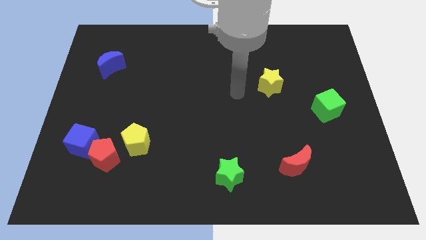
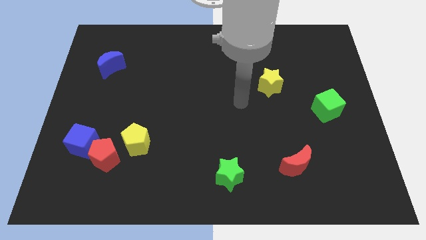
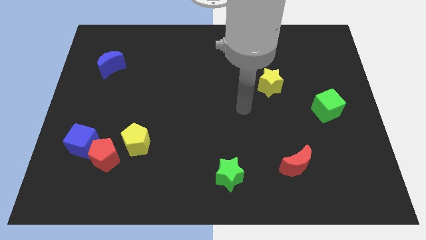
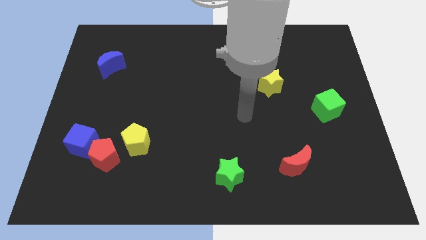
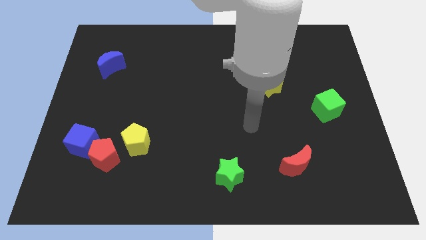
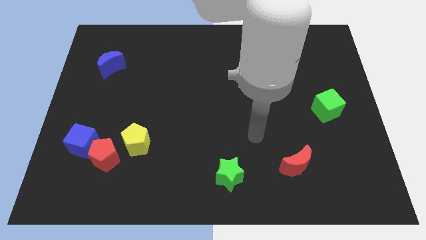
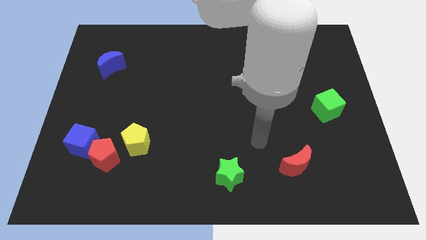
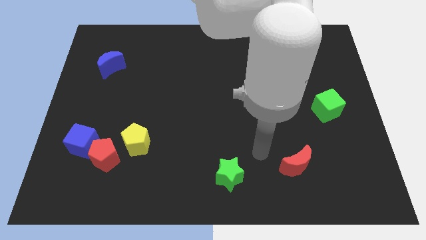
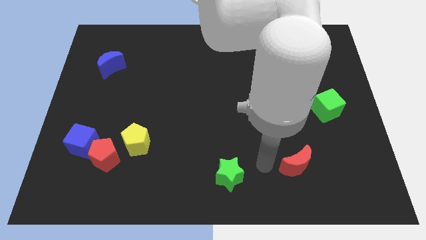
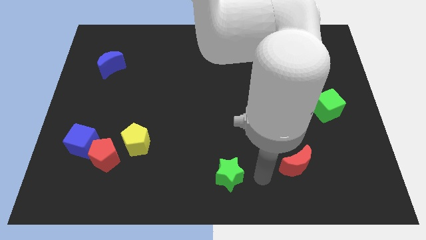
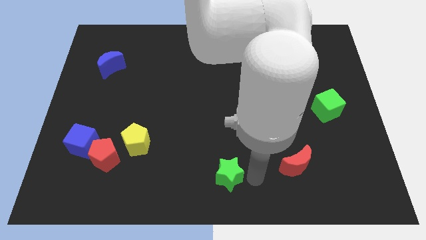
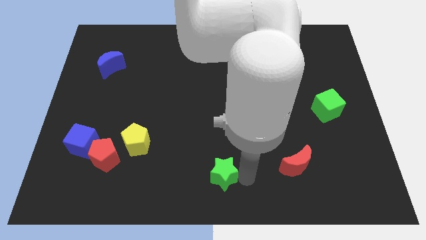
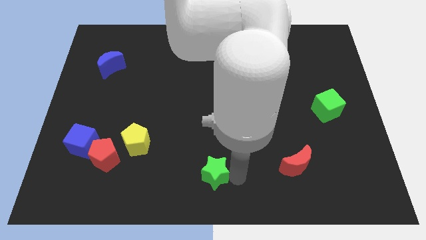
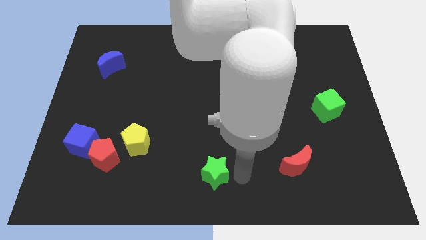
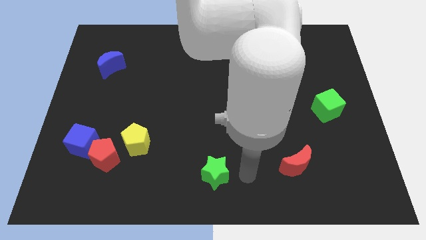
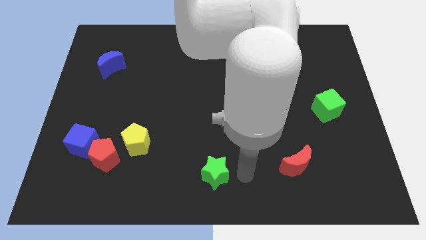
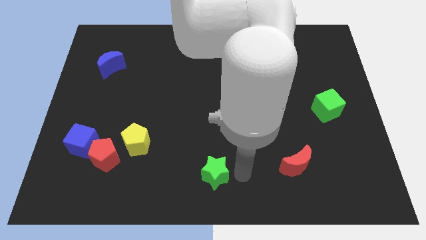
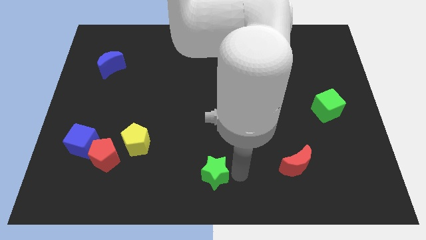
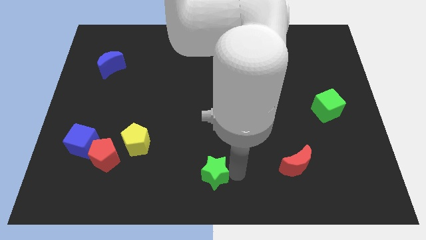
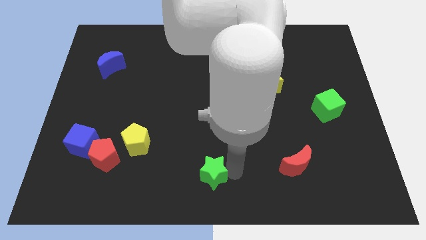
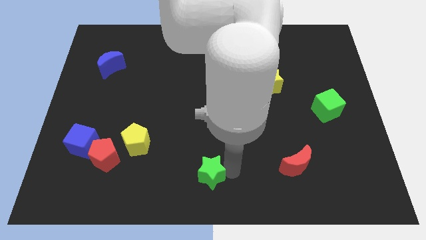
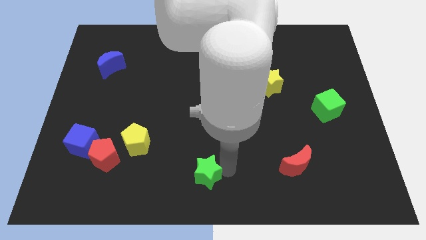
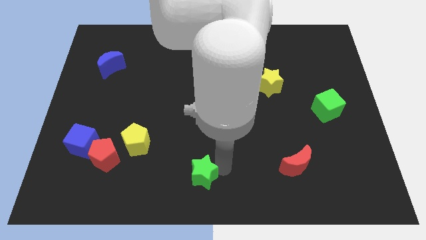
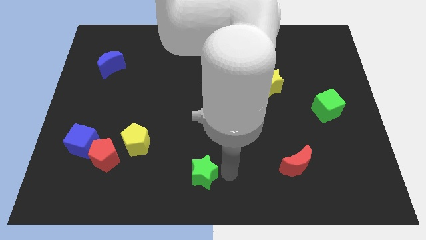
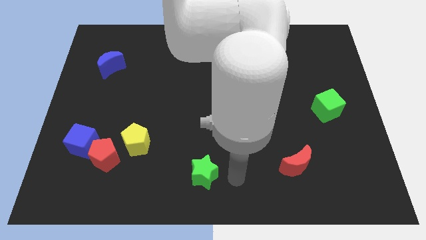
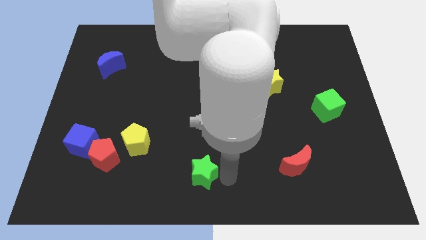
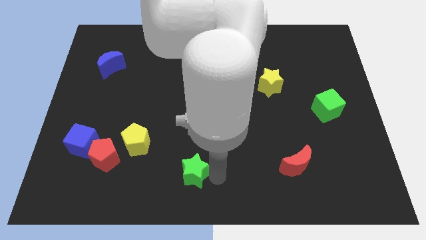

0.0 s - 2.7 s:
slightly slide the green star left

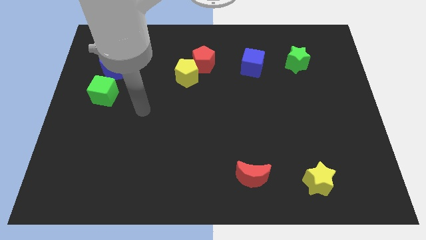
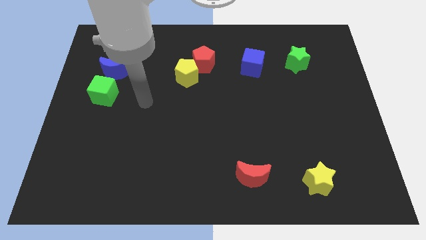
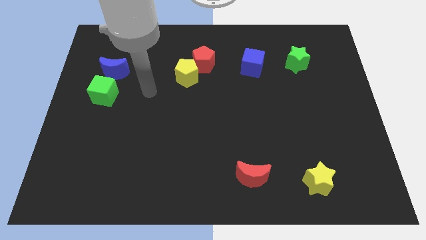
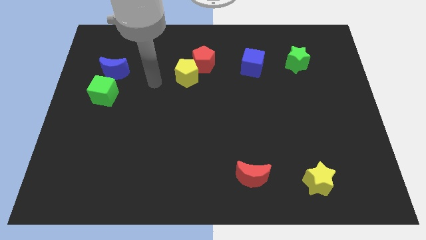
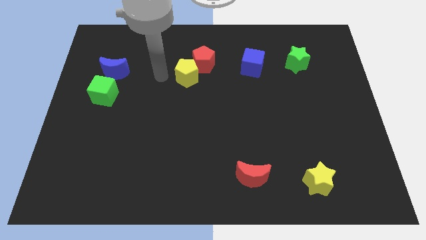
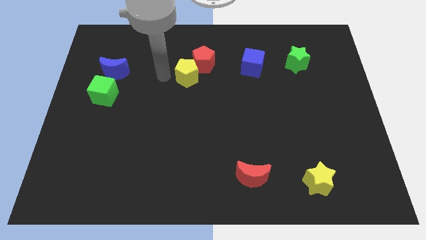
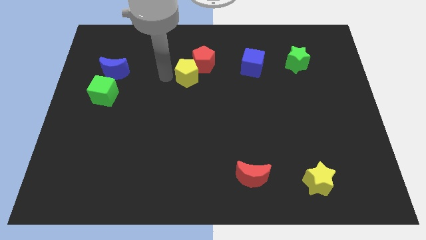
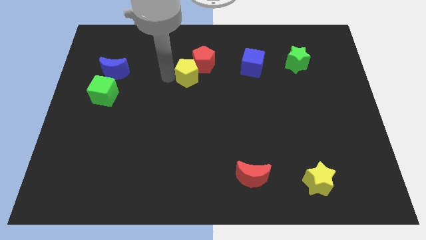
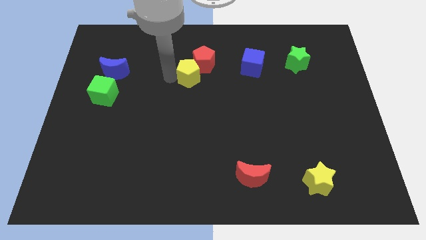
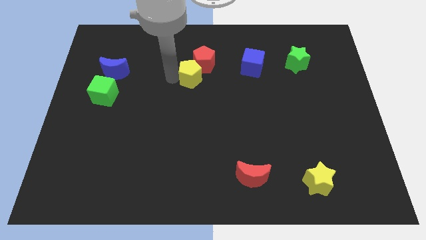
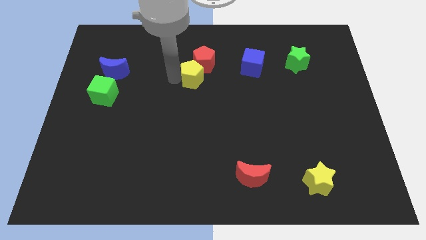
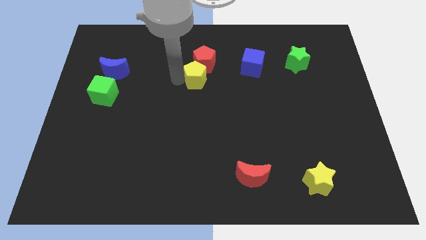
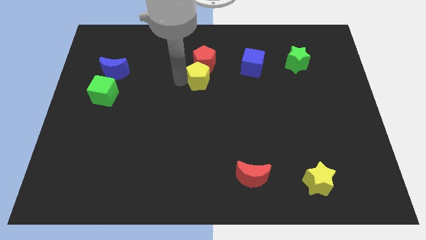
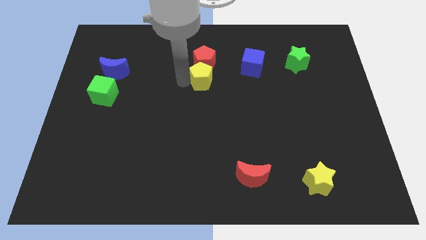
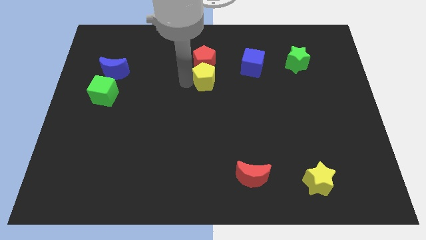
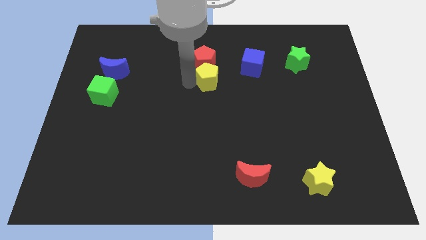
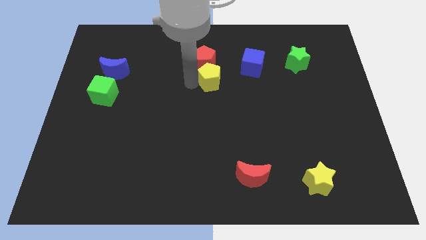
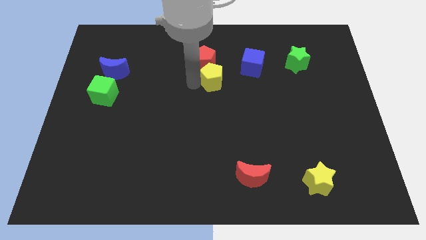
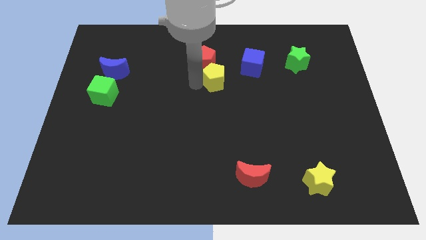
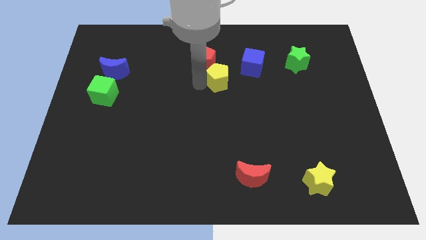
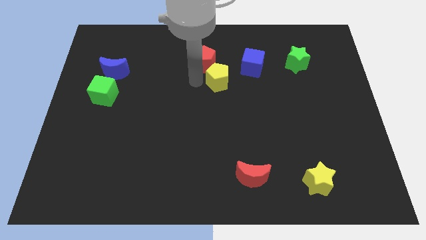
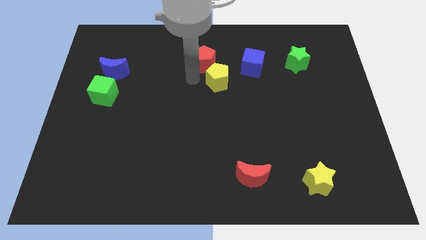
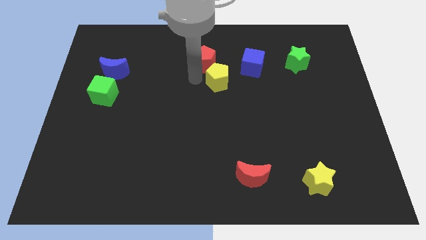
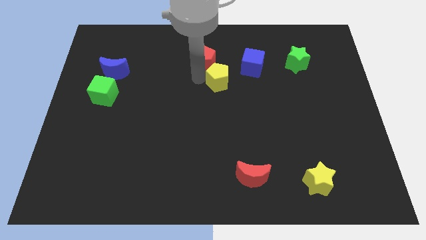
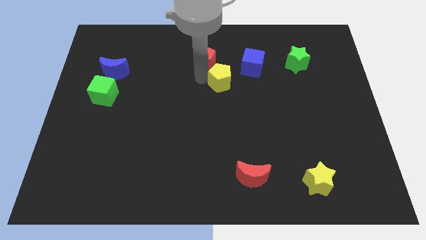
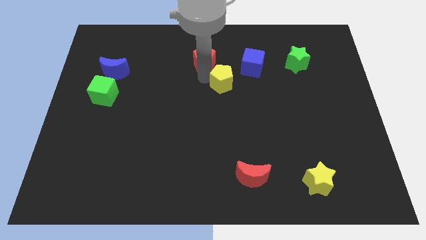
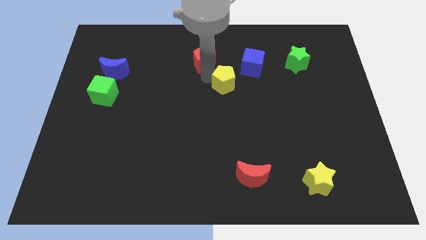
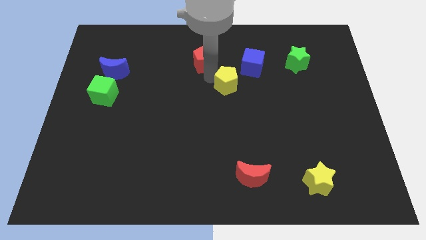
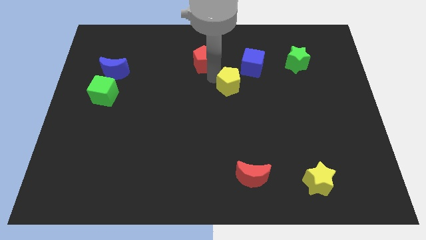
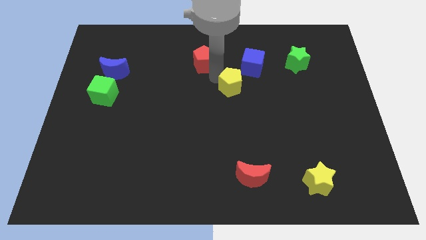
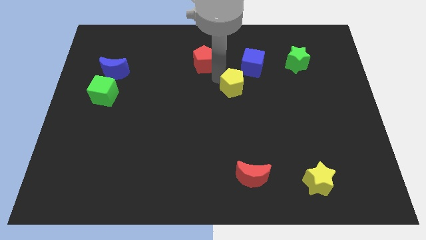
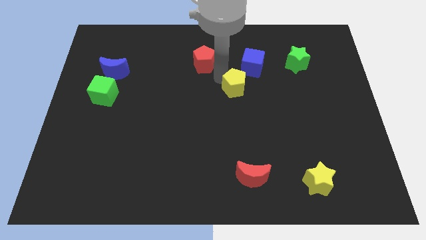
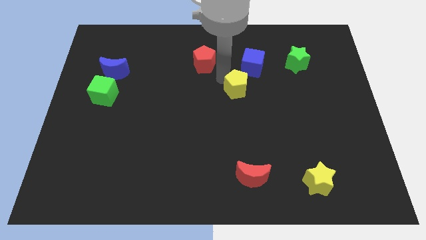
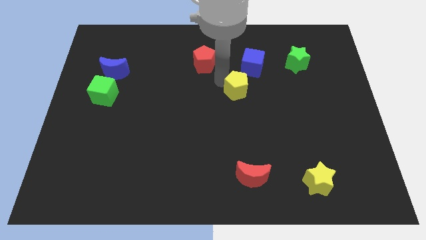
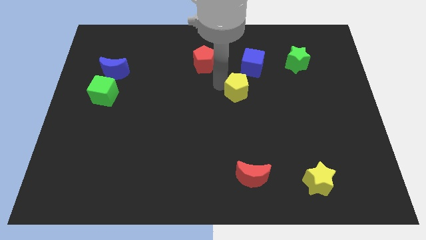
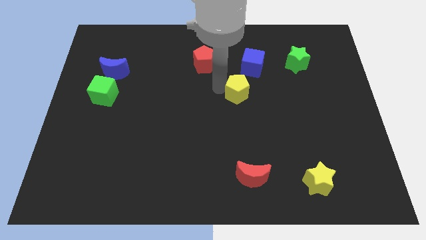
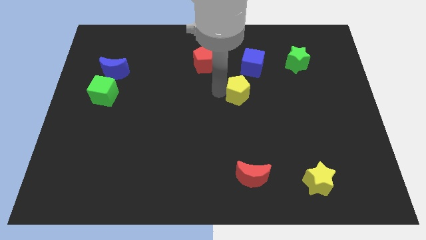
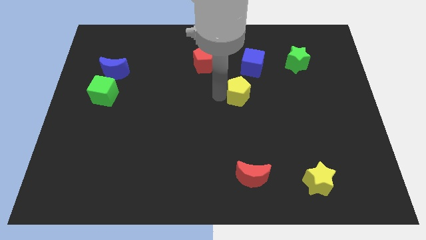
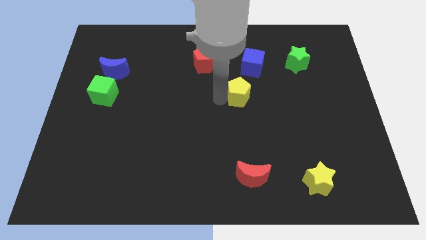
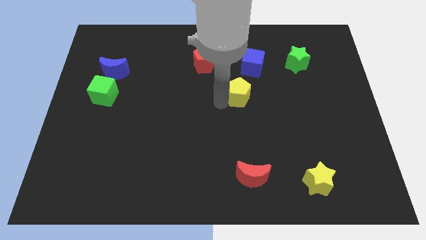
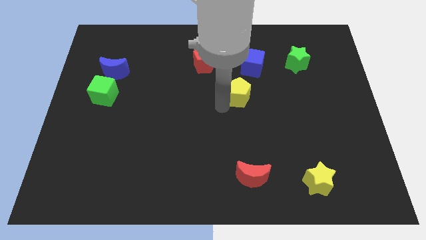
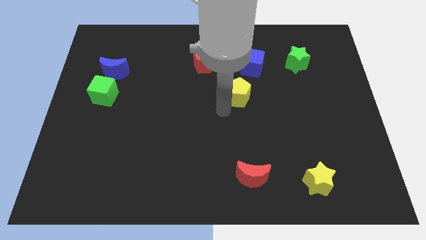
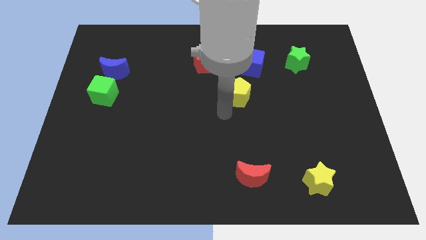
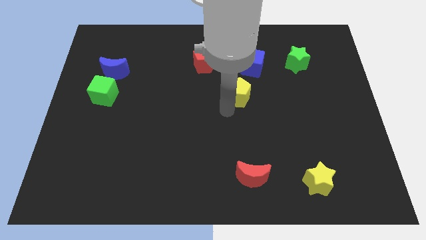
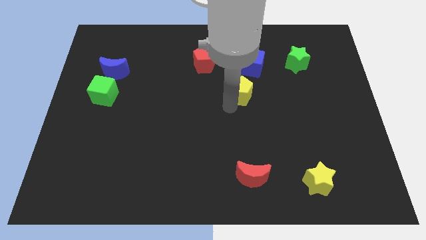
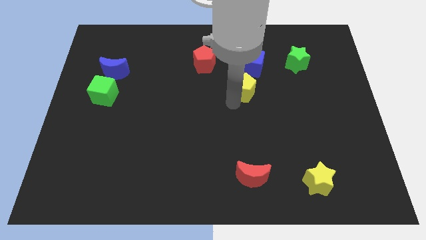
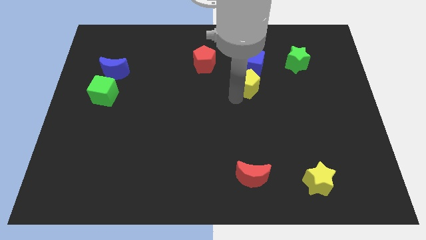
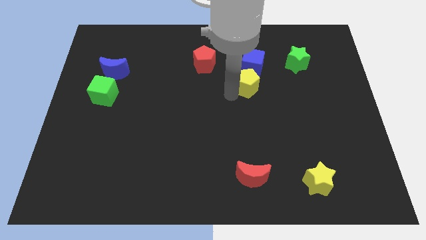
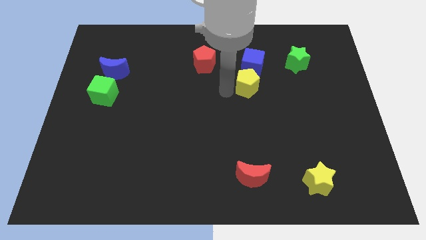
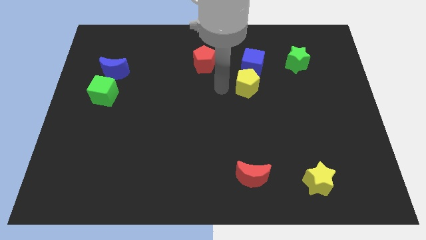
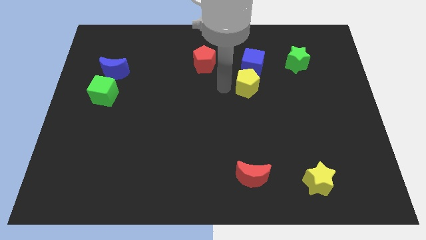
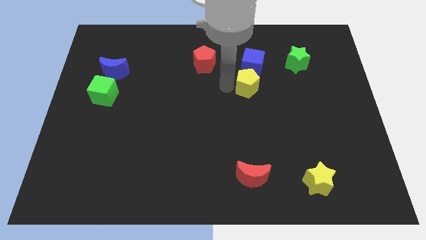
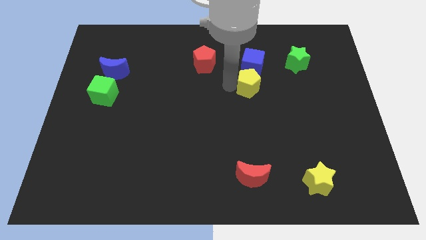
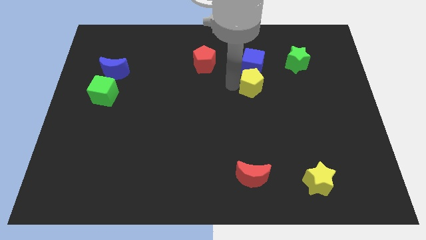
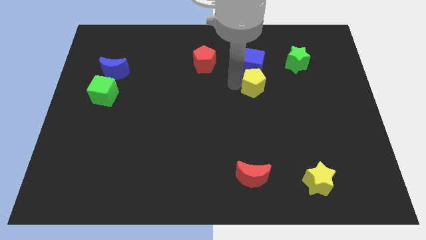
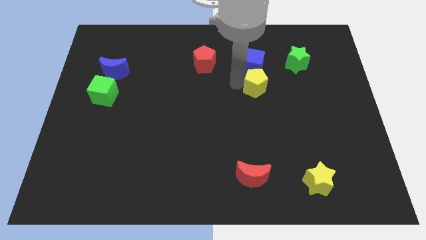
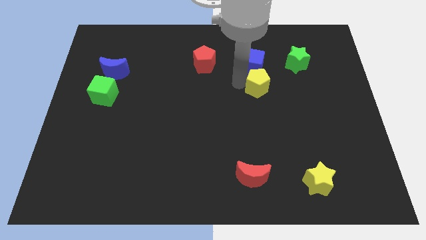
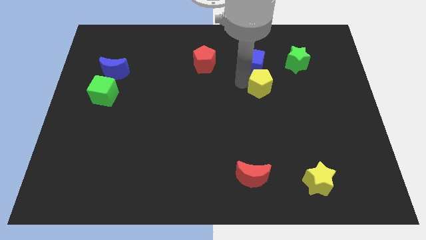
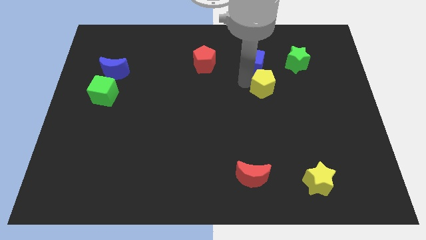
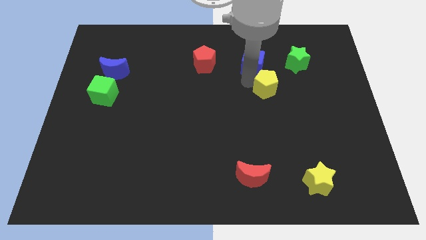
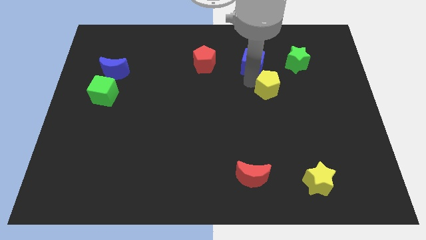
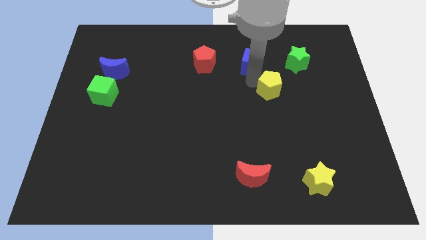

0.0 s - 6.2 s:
slide the yellow pentagon to the right
